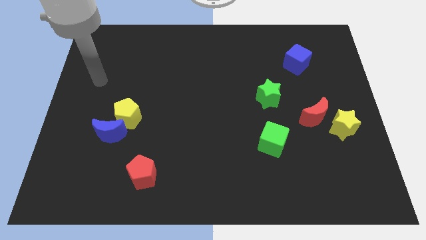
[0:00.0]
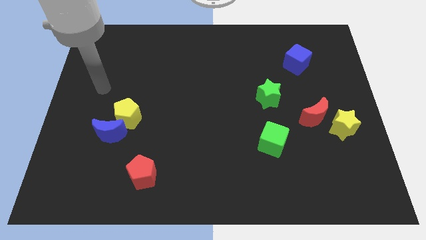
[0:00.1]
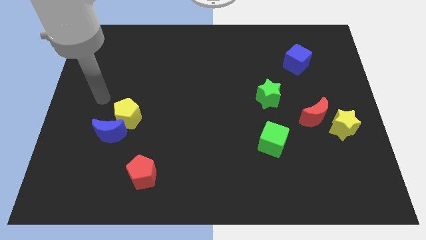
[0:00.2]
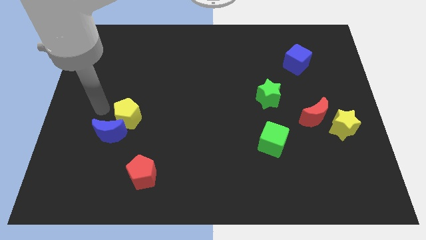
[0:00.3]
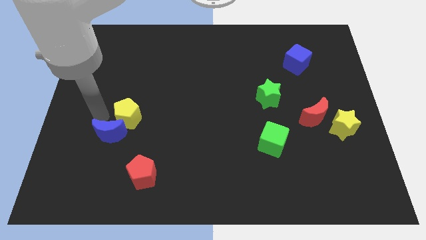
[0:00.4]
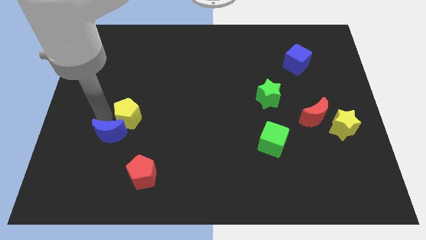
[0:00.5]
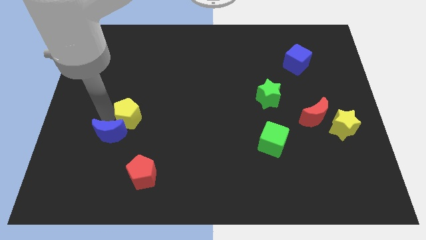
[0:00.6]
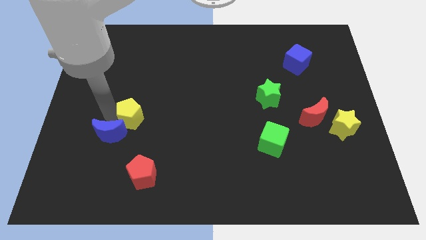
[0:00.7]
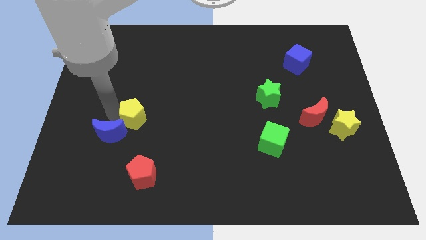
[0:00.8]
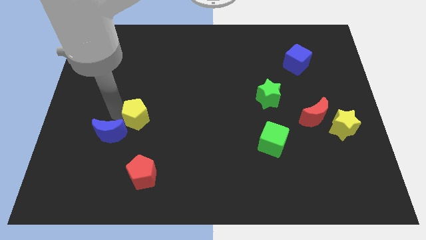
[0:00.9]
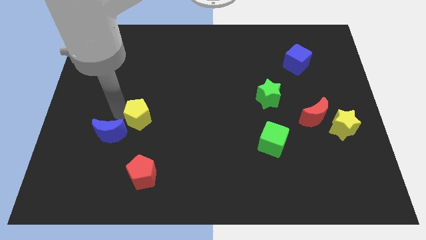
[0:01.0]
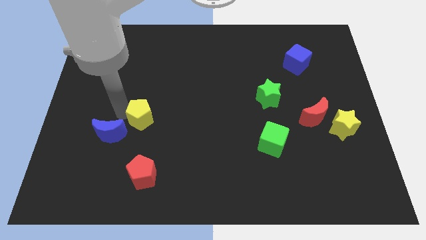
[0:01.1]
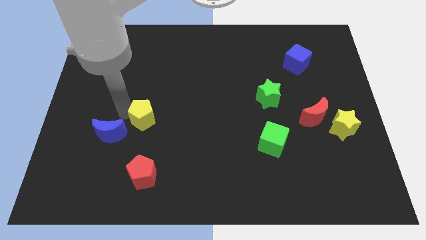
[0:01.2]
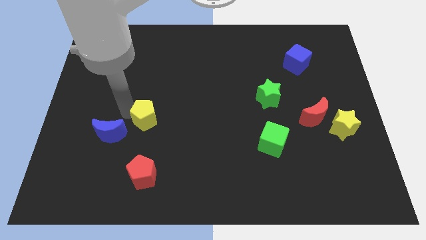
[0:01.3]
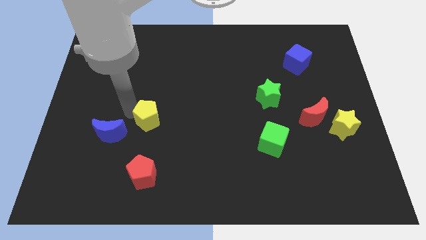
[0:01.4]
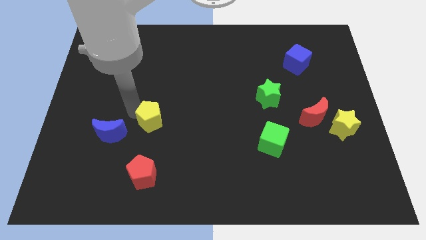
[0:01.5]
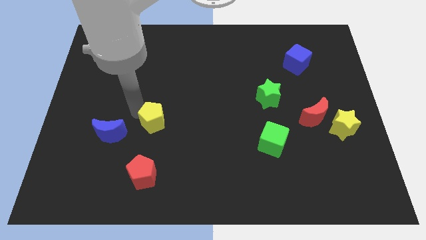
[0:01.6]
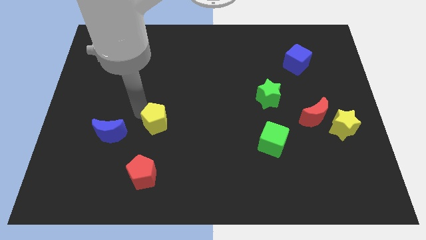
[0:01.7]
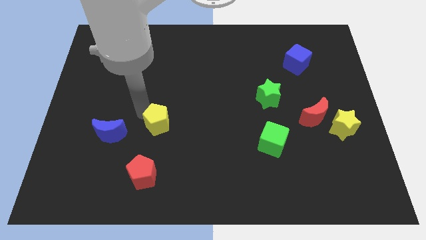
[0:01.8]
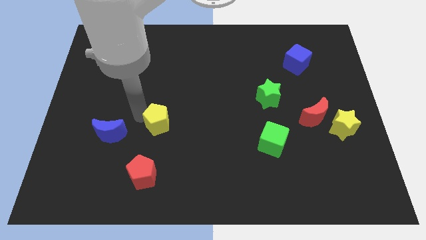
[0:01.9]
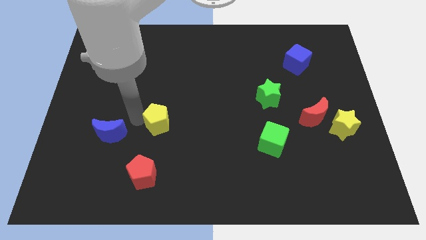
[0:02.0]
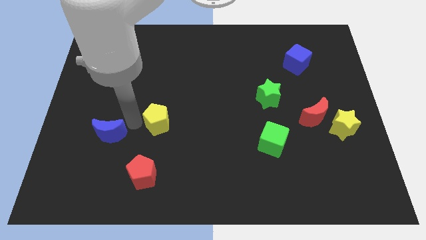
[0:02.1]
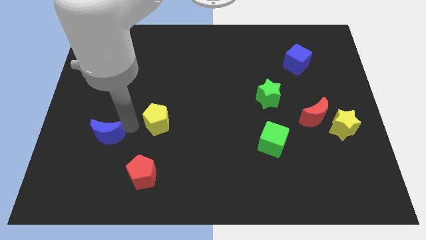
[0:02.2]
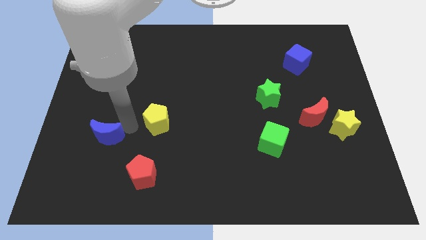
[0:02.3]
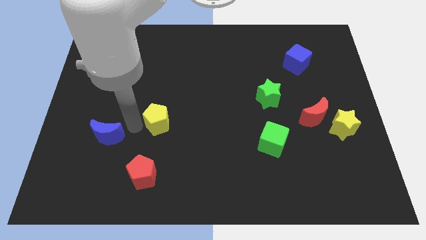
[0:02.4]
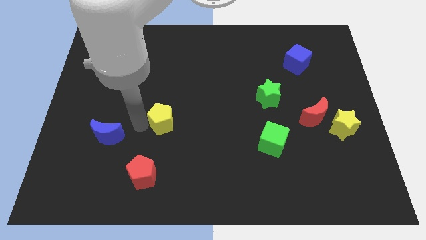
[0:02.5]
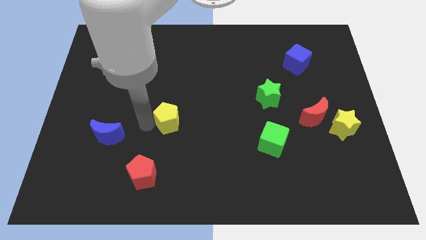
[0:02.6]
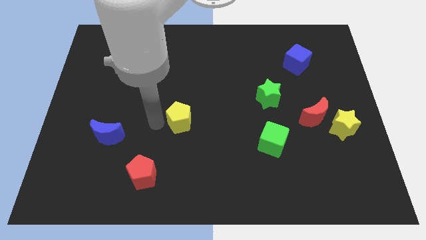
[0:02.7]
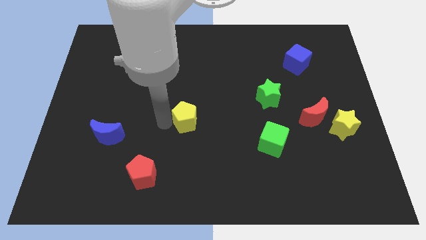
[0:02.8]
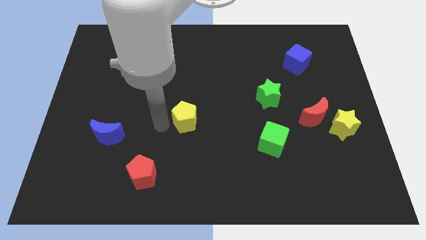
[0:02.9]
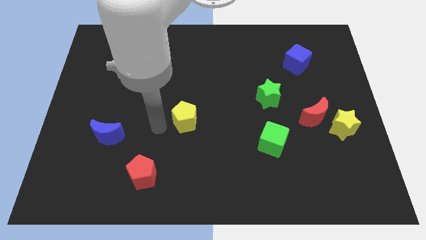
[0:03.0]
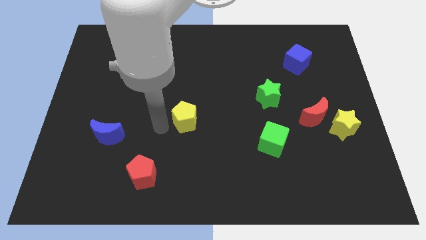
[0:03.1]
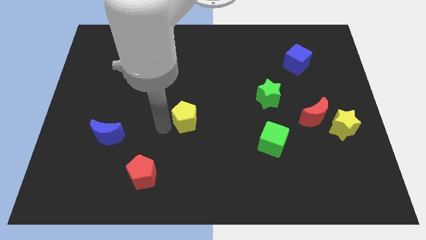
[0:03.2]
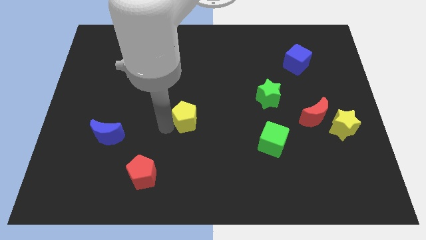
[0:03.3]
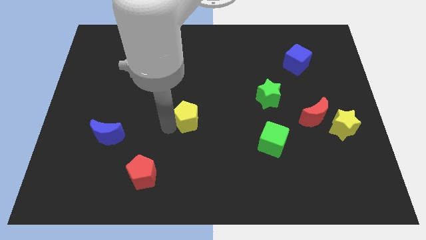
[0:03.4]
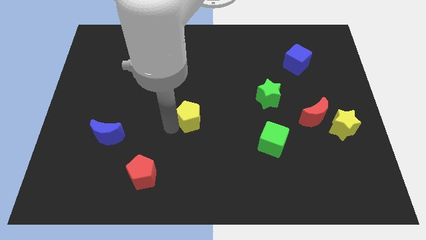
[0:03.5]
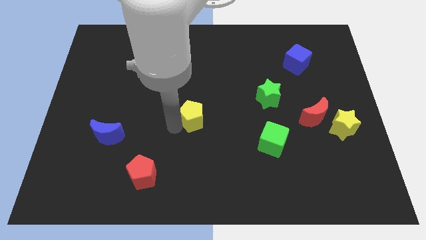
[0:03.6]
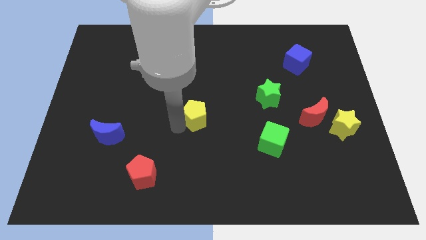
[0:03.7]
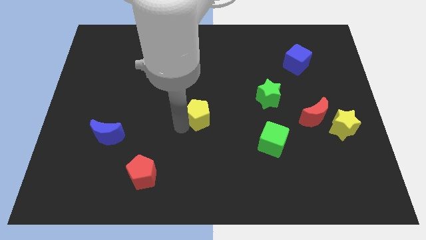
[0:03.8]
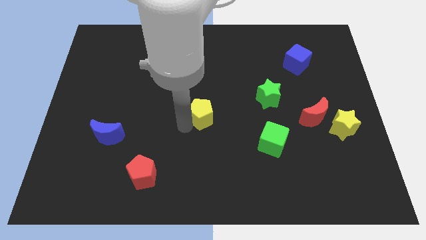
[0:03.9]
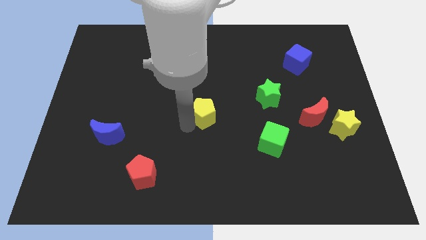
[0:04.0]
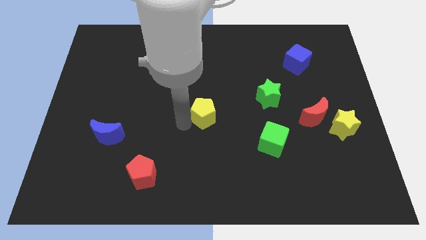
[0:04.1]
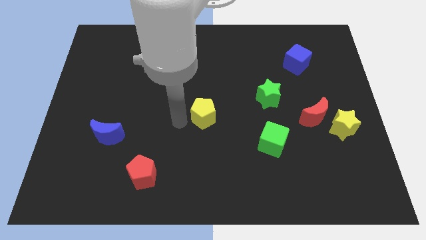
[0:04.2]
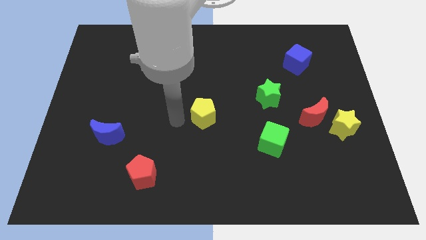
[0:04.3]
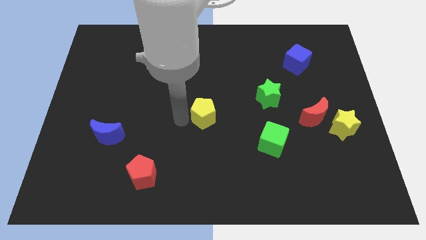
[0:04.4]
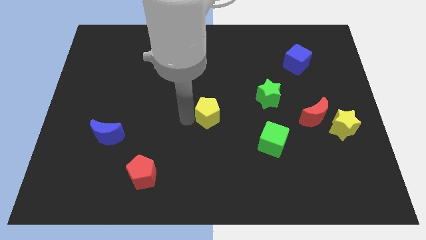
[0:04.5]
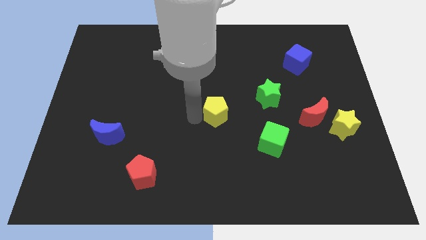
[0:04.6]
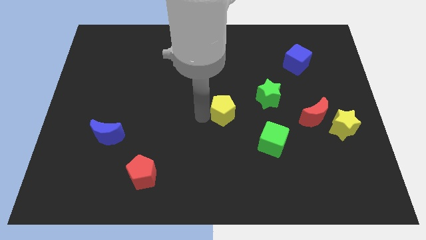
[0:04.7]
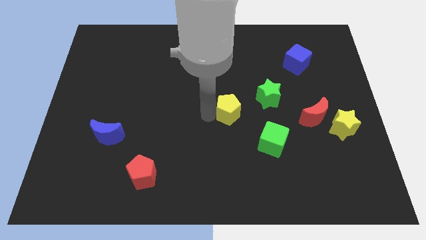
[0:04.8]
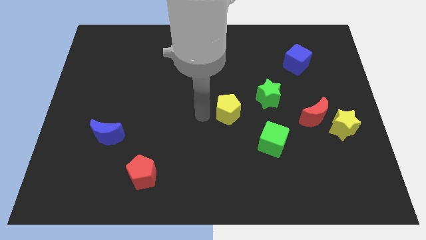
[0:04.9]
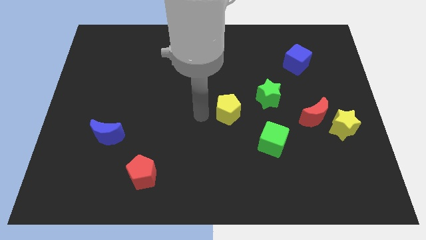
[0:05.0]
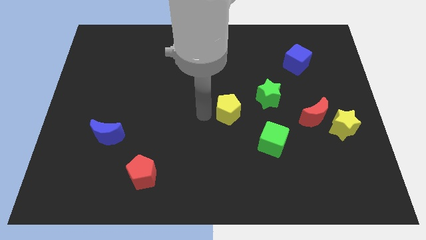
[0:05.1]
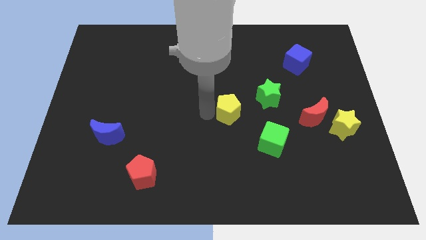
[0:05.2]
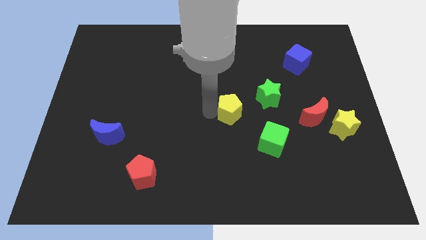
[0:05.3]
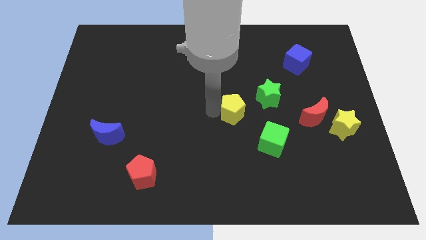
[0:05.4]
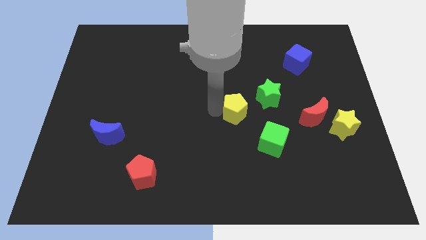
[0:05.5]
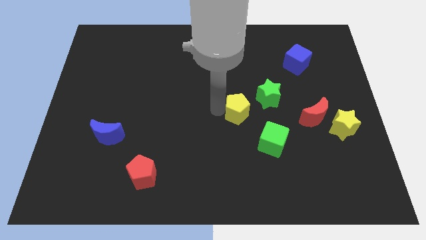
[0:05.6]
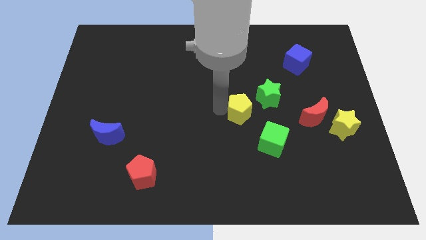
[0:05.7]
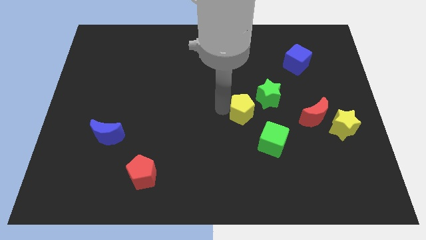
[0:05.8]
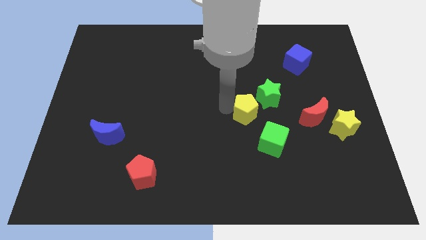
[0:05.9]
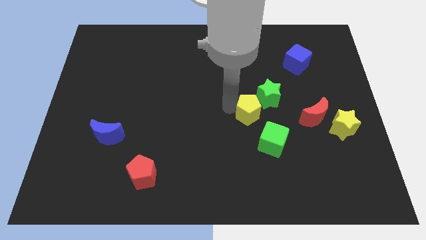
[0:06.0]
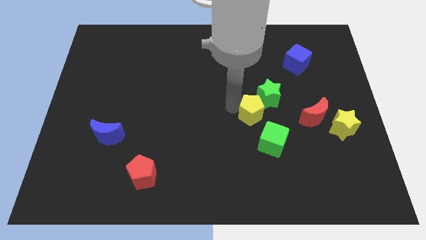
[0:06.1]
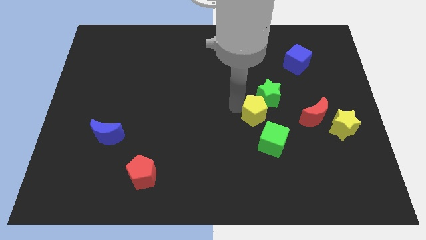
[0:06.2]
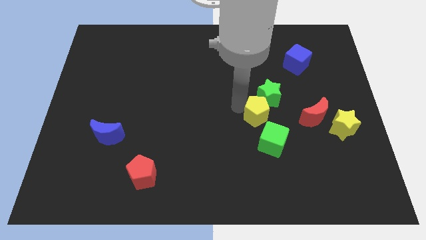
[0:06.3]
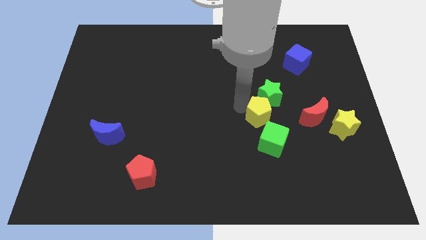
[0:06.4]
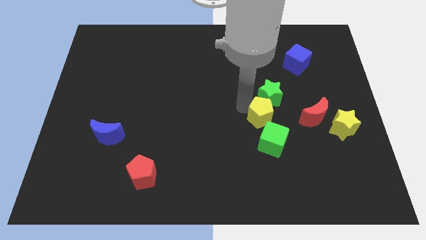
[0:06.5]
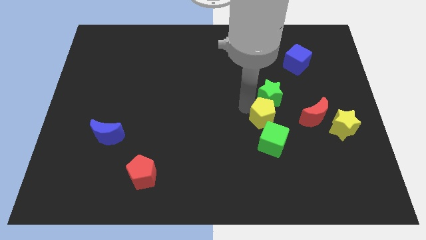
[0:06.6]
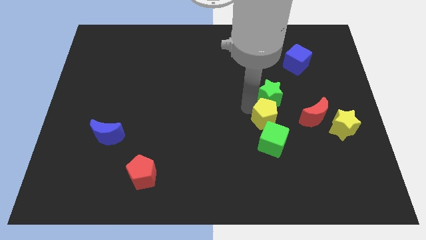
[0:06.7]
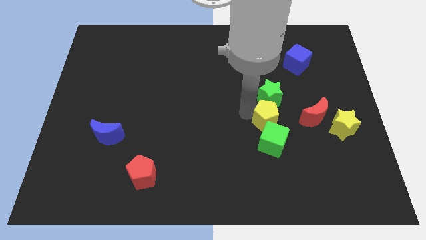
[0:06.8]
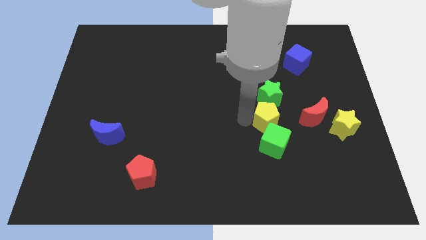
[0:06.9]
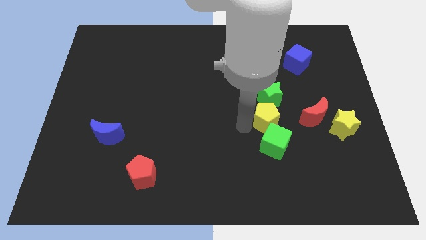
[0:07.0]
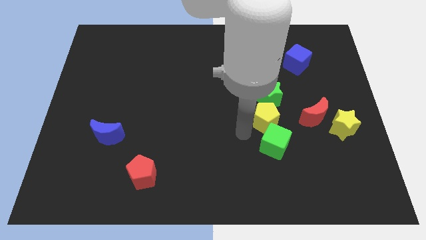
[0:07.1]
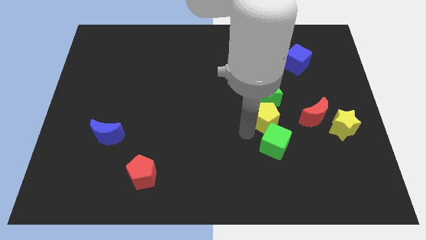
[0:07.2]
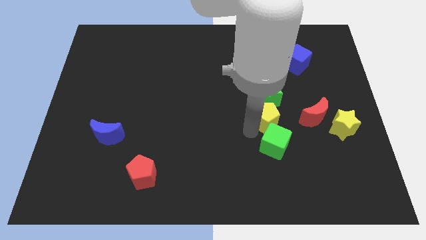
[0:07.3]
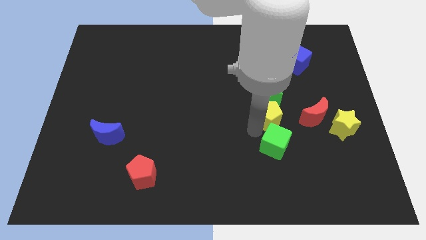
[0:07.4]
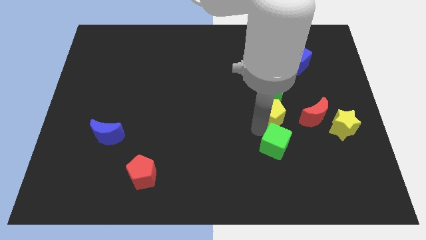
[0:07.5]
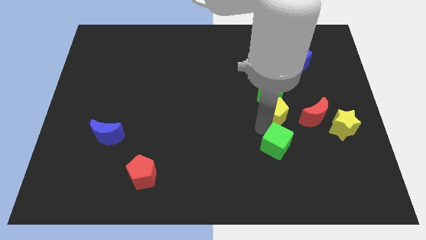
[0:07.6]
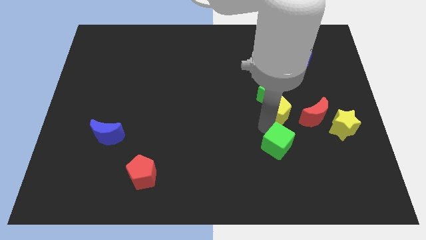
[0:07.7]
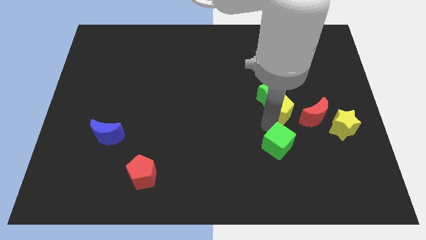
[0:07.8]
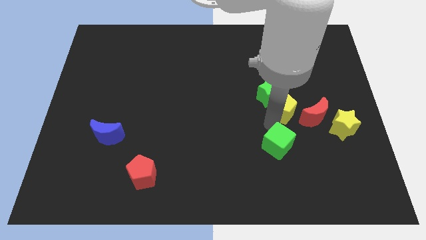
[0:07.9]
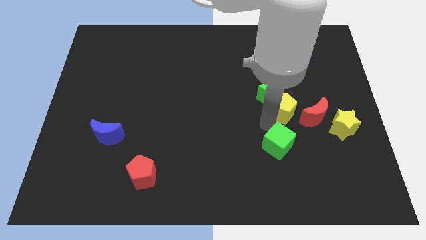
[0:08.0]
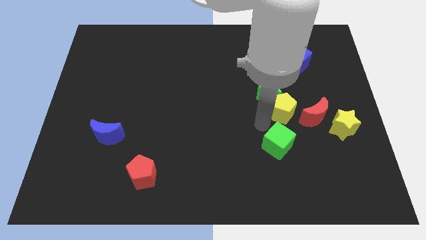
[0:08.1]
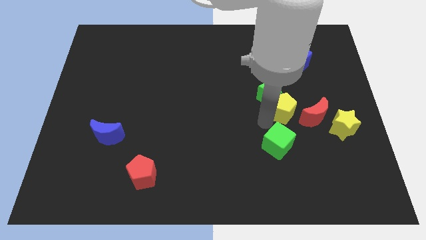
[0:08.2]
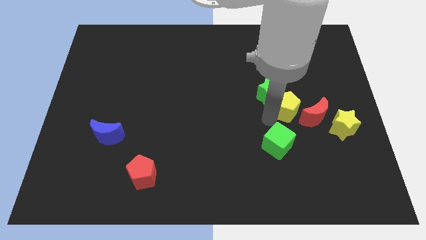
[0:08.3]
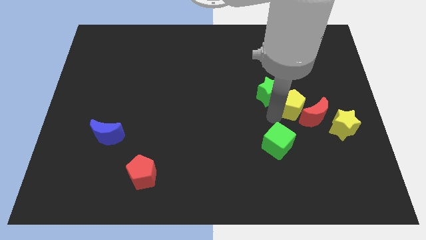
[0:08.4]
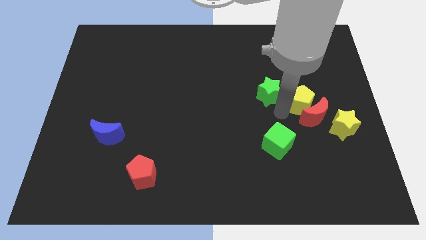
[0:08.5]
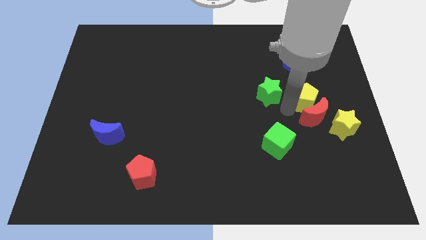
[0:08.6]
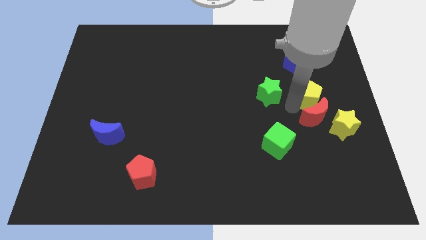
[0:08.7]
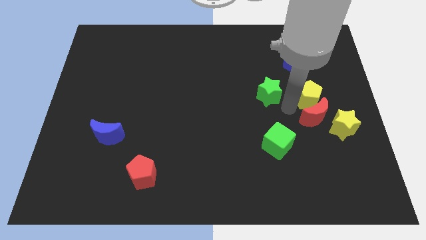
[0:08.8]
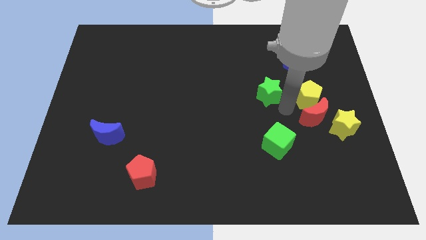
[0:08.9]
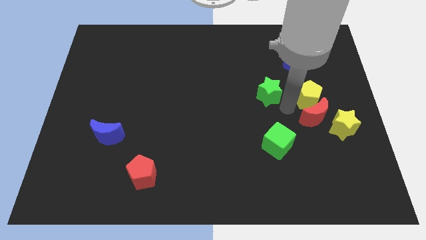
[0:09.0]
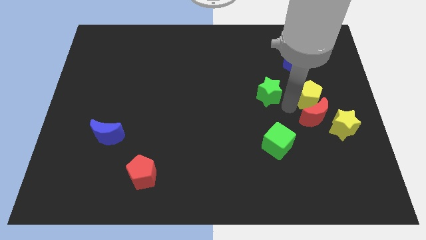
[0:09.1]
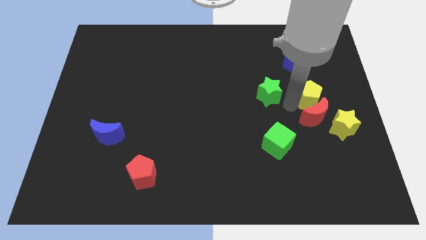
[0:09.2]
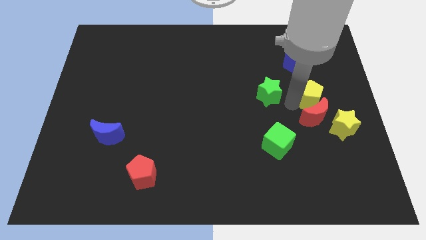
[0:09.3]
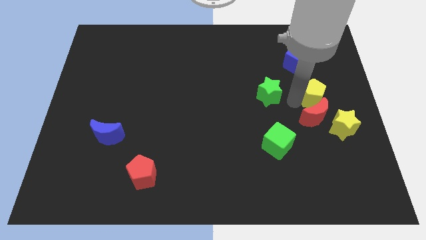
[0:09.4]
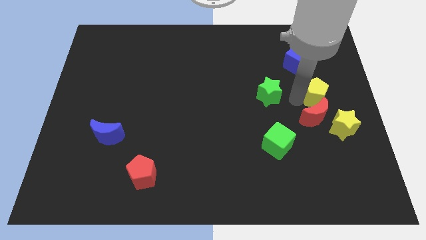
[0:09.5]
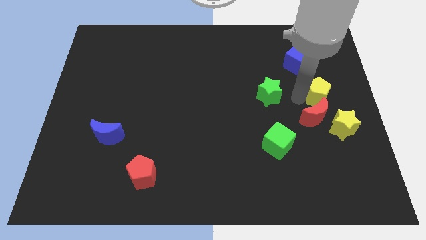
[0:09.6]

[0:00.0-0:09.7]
push the yellow pentagon to the right side of the board
